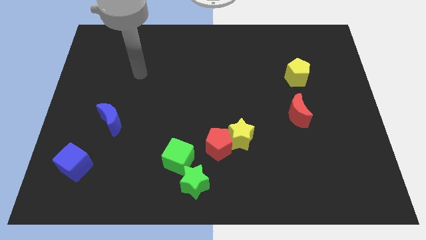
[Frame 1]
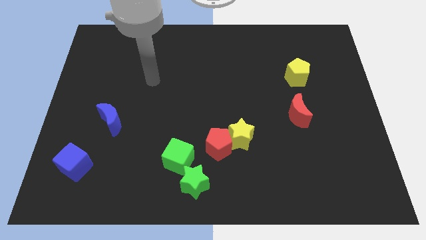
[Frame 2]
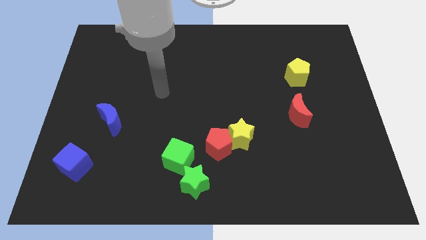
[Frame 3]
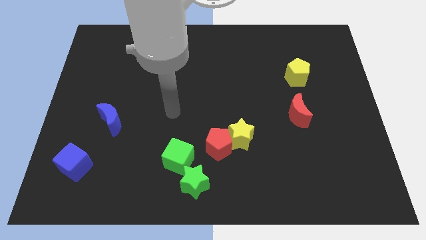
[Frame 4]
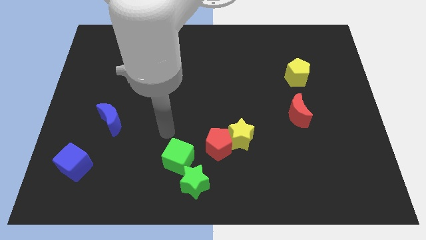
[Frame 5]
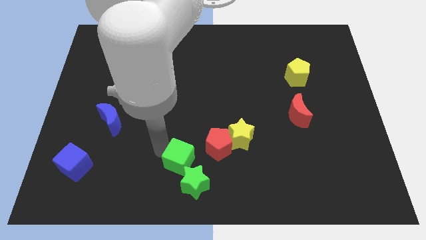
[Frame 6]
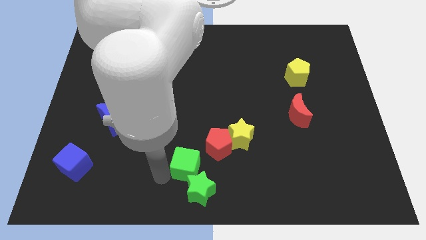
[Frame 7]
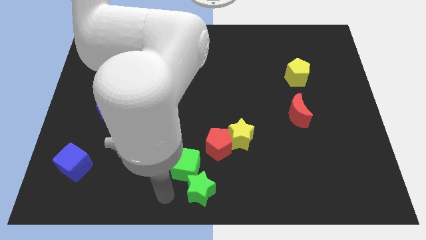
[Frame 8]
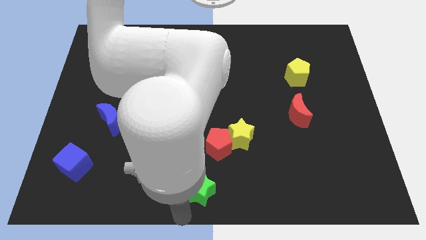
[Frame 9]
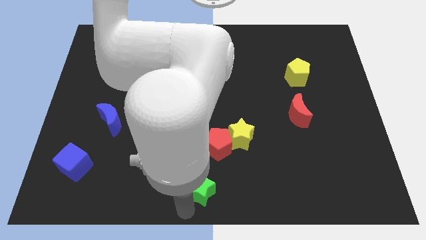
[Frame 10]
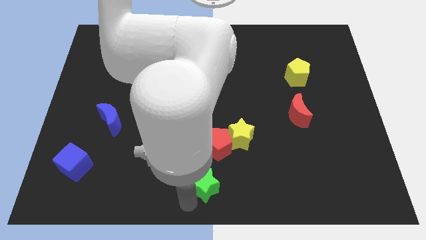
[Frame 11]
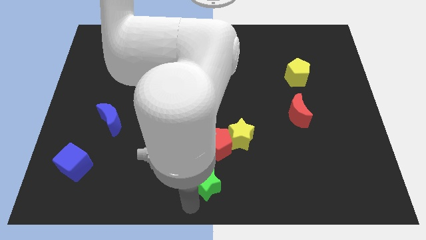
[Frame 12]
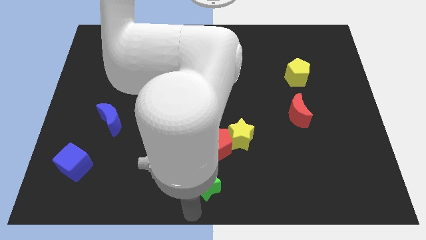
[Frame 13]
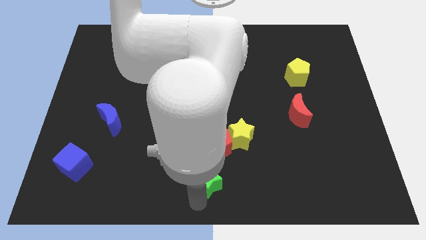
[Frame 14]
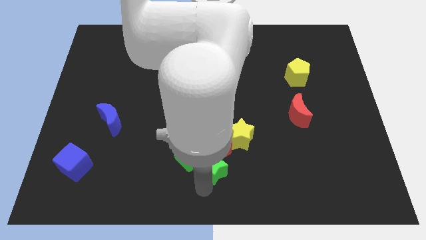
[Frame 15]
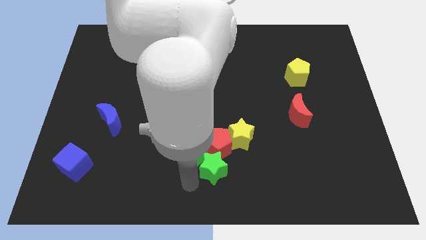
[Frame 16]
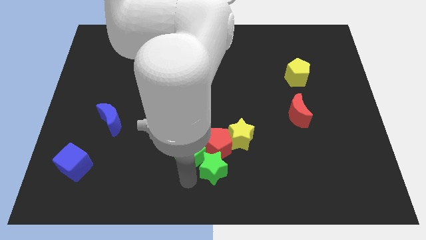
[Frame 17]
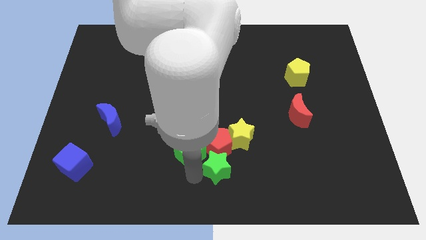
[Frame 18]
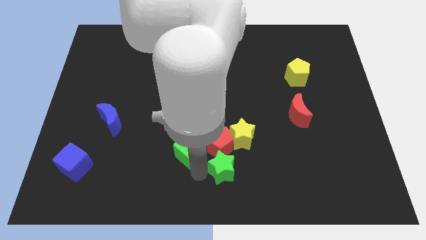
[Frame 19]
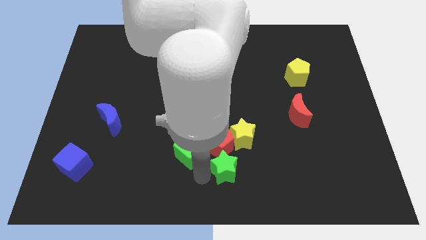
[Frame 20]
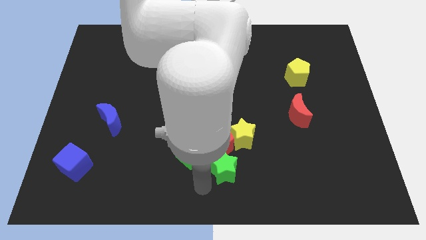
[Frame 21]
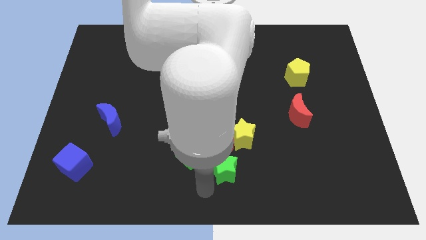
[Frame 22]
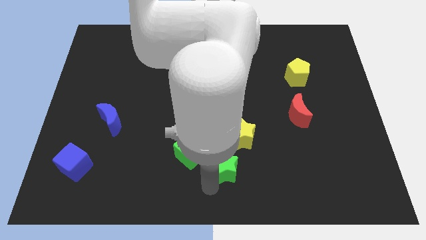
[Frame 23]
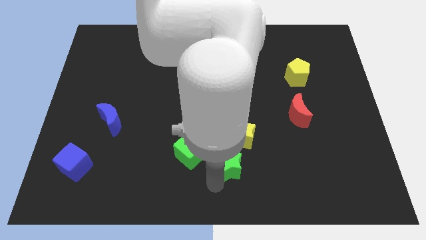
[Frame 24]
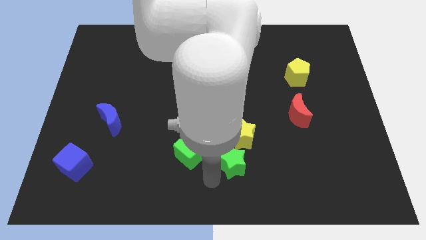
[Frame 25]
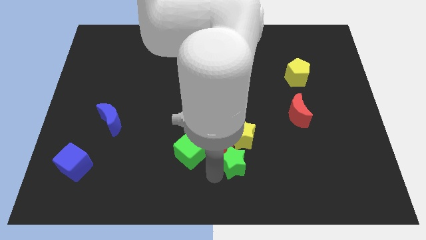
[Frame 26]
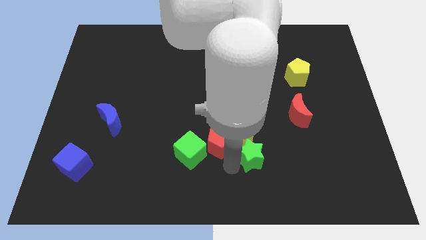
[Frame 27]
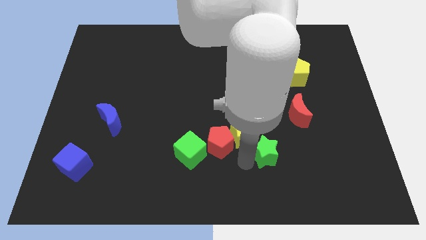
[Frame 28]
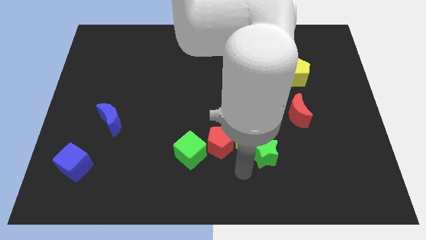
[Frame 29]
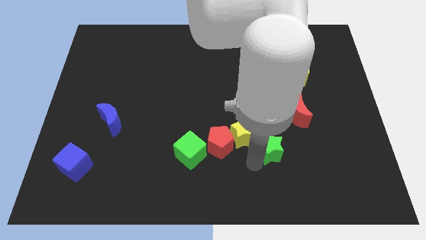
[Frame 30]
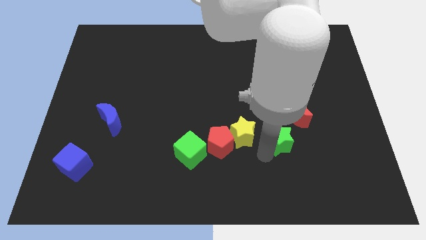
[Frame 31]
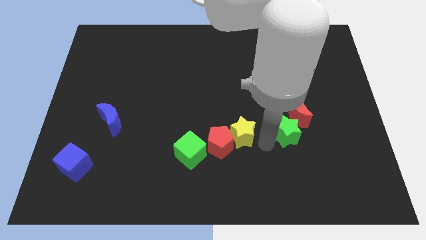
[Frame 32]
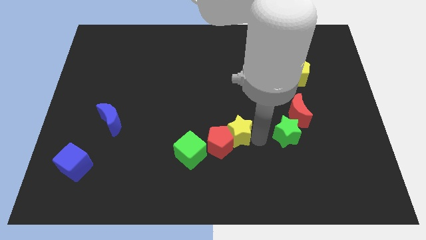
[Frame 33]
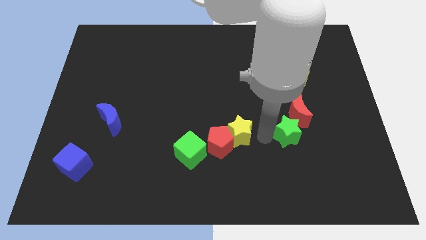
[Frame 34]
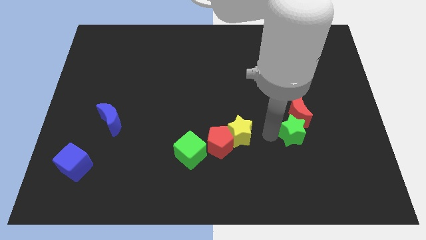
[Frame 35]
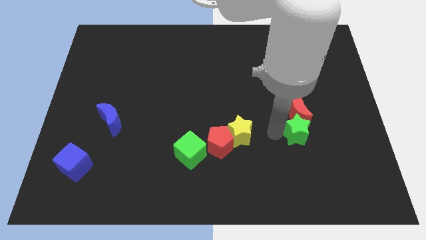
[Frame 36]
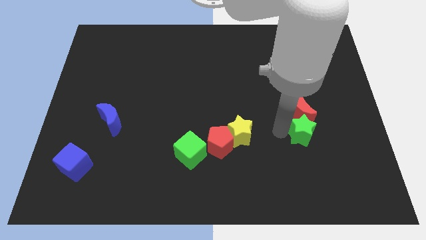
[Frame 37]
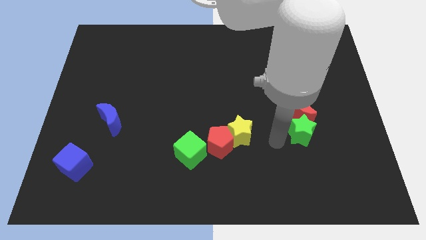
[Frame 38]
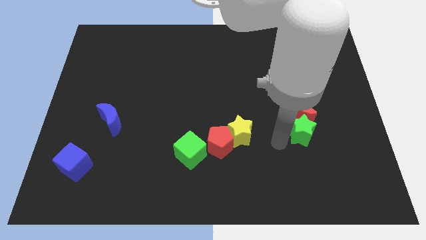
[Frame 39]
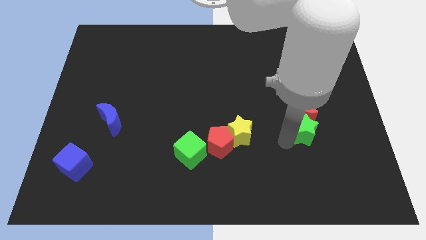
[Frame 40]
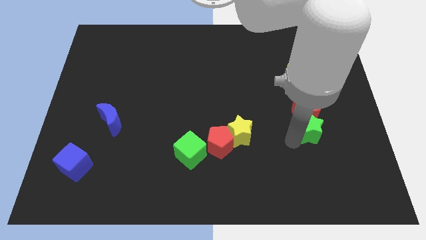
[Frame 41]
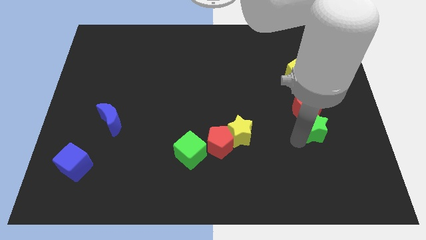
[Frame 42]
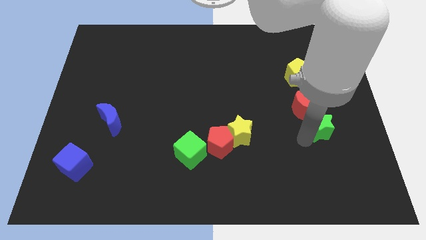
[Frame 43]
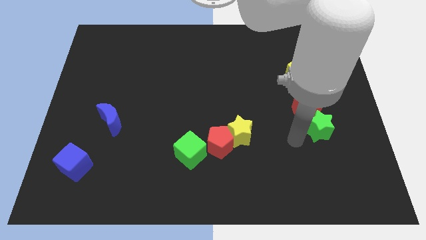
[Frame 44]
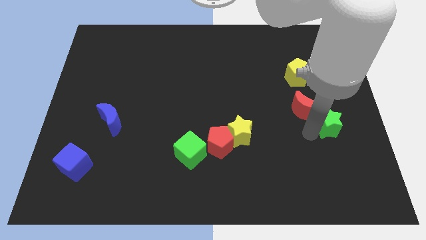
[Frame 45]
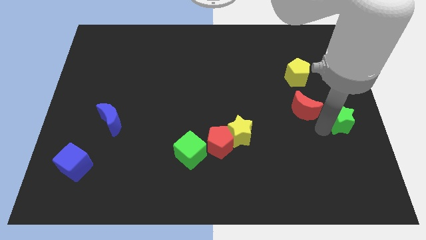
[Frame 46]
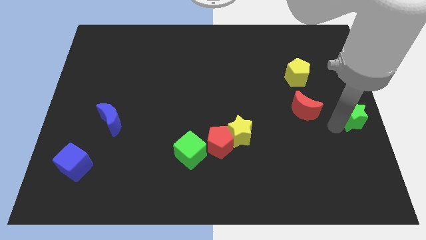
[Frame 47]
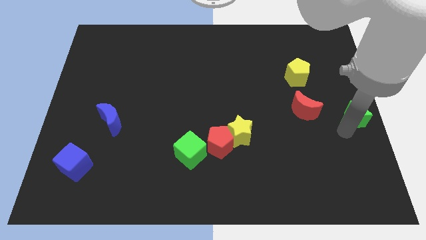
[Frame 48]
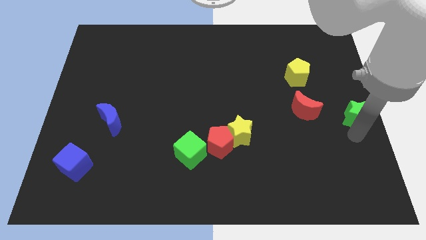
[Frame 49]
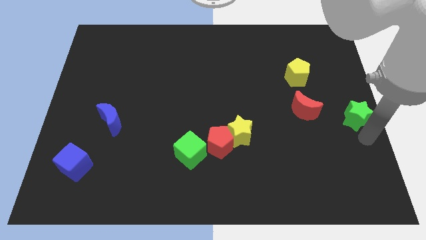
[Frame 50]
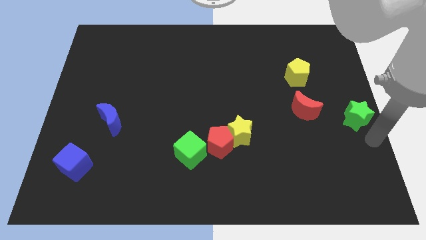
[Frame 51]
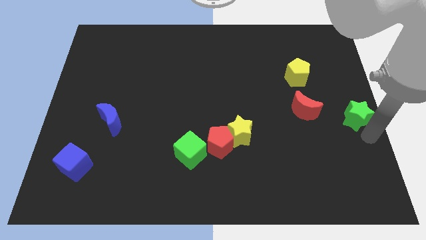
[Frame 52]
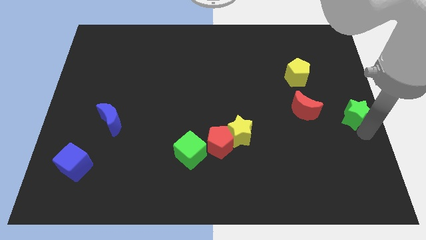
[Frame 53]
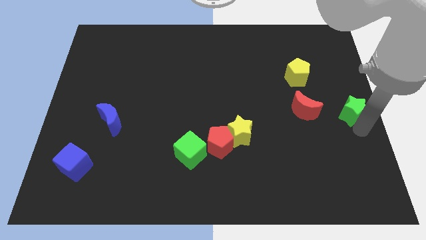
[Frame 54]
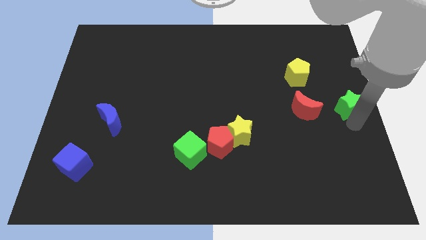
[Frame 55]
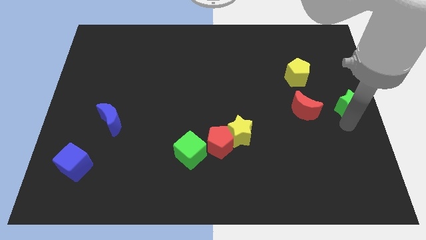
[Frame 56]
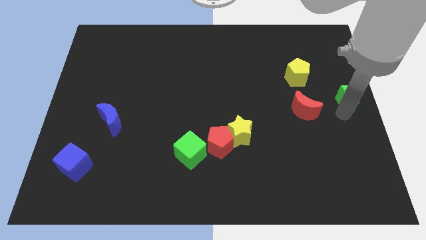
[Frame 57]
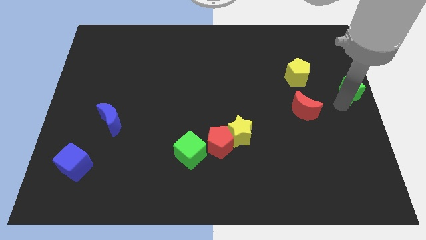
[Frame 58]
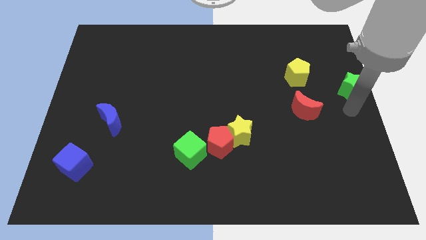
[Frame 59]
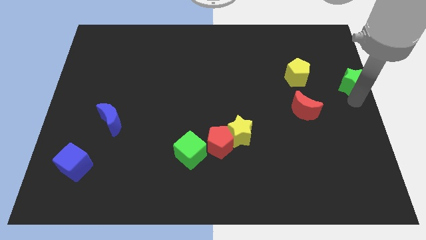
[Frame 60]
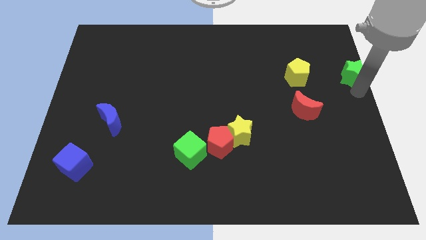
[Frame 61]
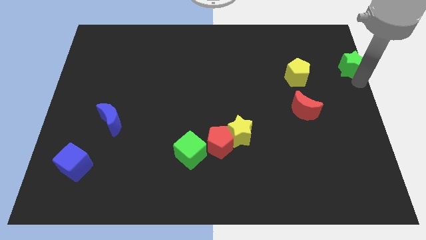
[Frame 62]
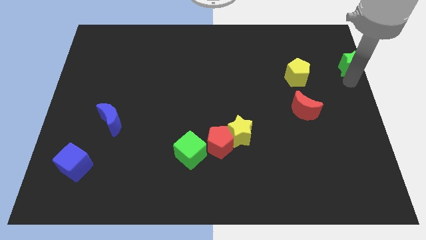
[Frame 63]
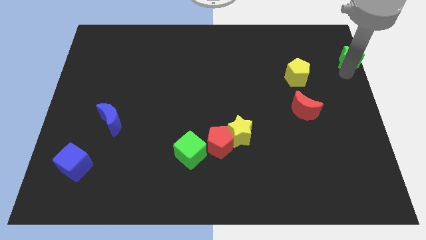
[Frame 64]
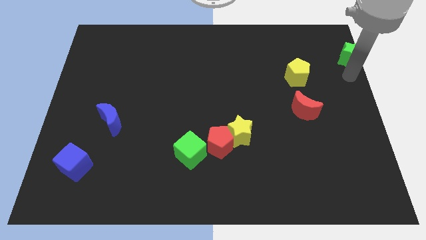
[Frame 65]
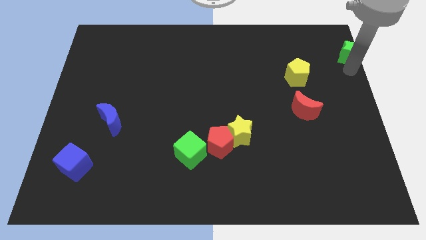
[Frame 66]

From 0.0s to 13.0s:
move the green star to the top right
